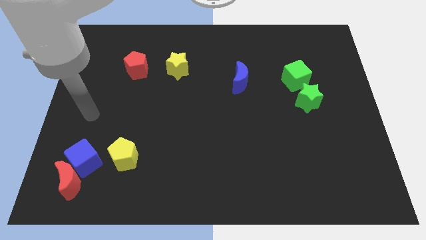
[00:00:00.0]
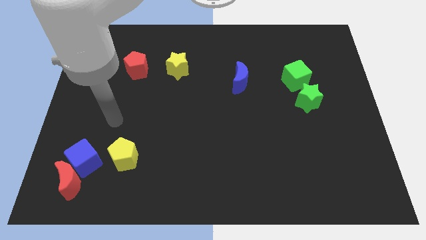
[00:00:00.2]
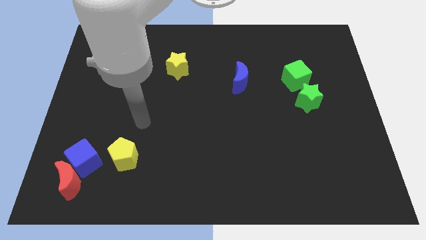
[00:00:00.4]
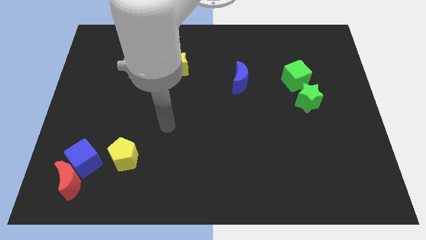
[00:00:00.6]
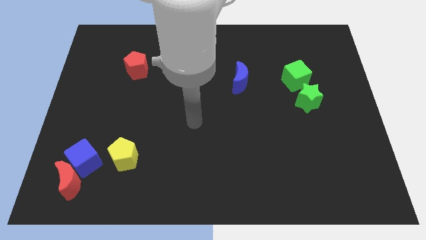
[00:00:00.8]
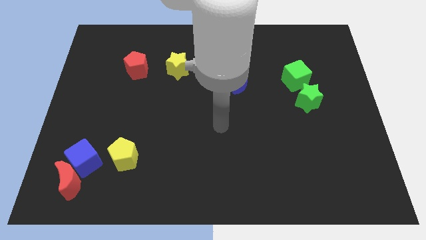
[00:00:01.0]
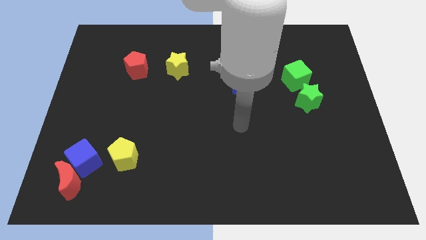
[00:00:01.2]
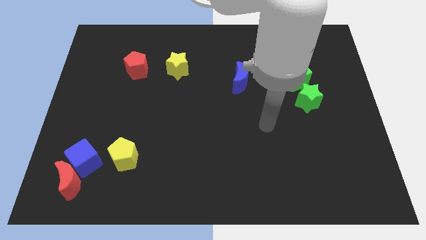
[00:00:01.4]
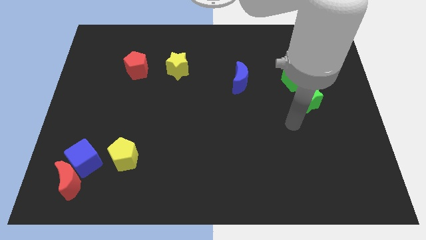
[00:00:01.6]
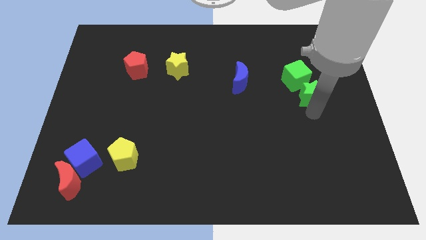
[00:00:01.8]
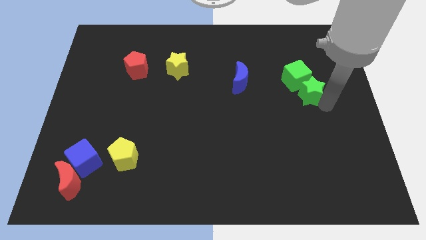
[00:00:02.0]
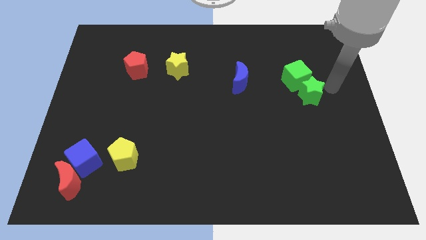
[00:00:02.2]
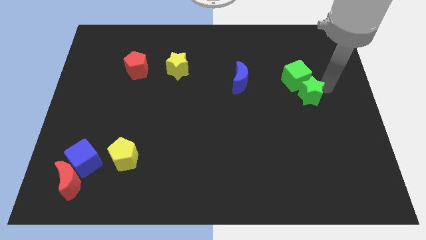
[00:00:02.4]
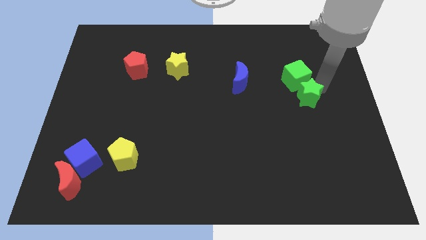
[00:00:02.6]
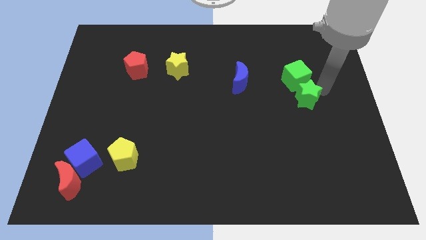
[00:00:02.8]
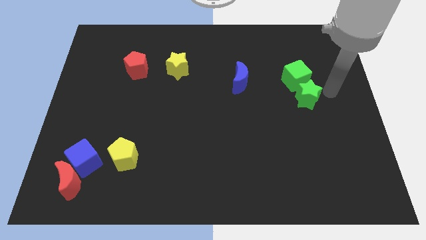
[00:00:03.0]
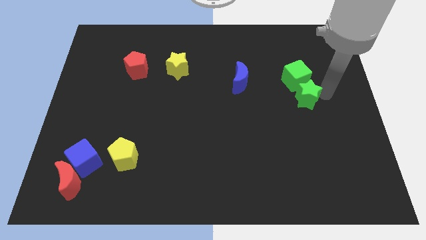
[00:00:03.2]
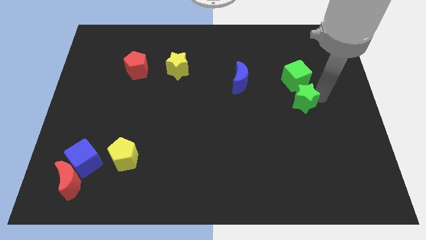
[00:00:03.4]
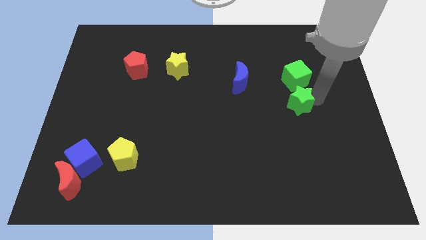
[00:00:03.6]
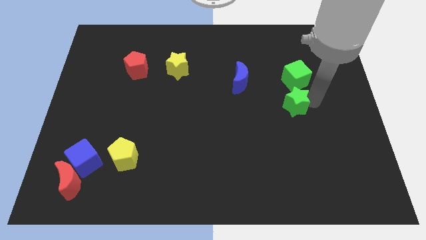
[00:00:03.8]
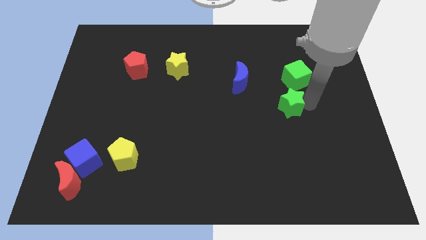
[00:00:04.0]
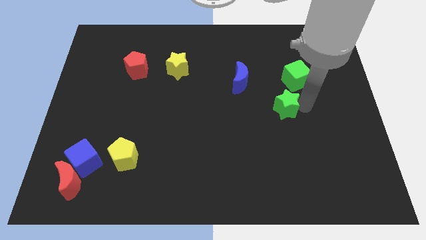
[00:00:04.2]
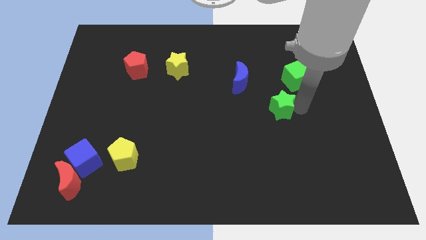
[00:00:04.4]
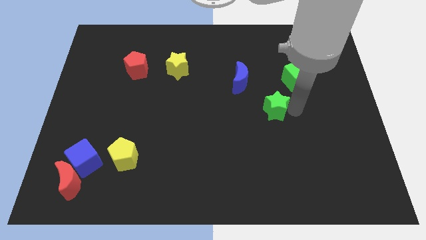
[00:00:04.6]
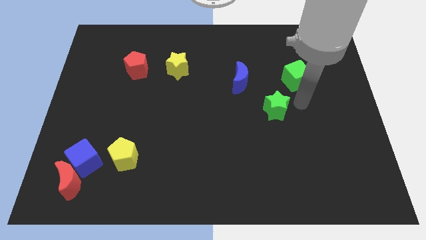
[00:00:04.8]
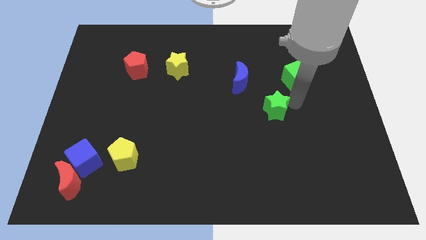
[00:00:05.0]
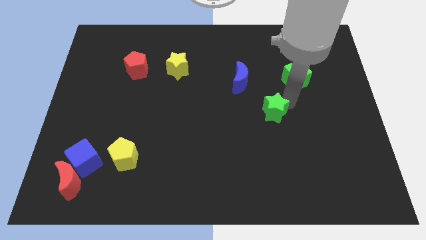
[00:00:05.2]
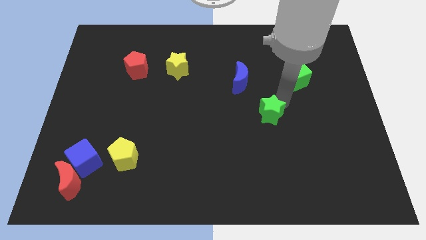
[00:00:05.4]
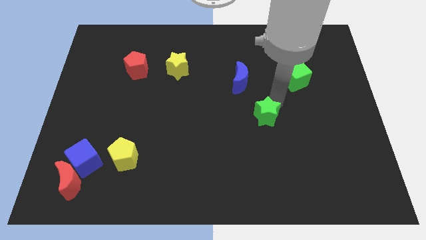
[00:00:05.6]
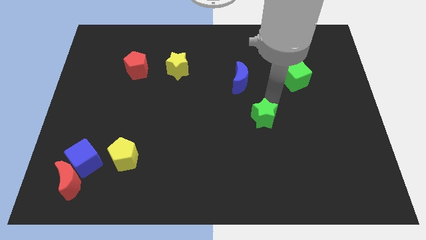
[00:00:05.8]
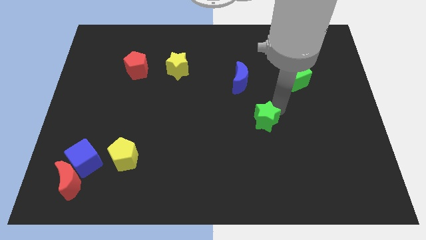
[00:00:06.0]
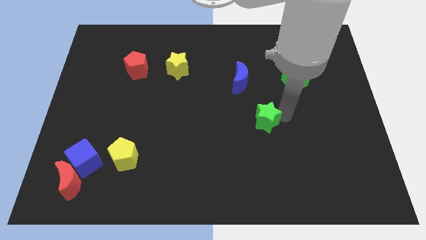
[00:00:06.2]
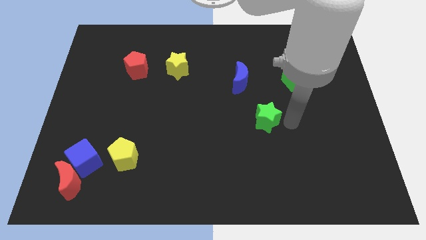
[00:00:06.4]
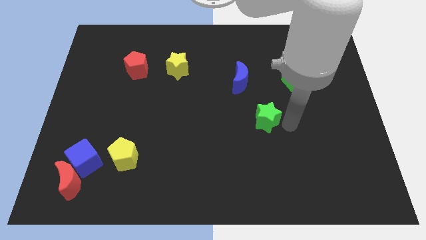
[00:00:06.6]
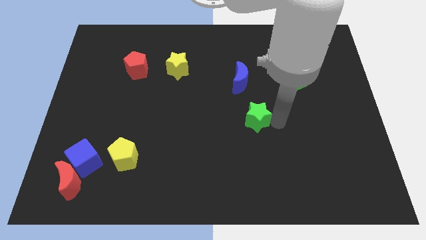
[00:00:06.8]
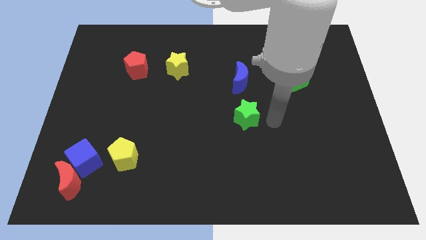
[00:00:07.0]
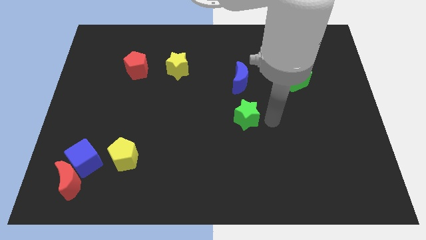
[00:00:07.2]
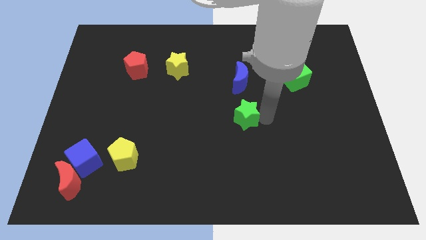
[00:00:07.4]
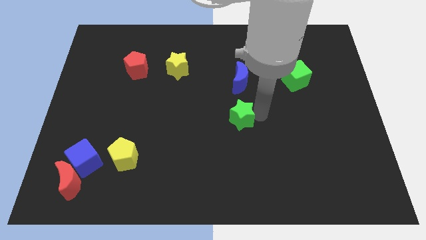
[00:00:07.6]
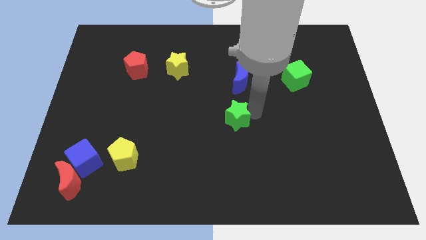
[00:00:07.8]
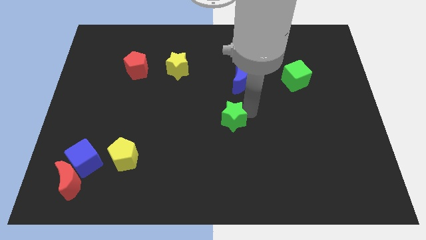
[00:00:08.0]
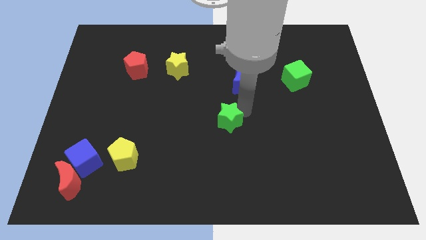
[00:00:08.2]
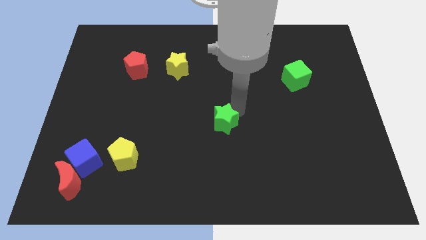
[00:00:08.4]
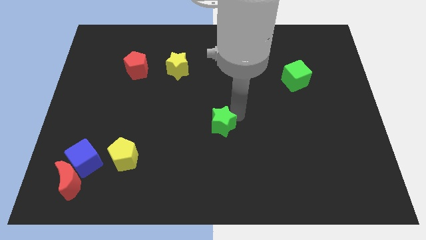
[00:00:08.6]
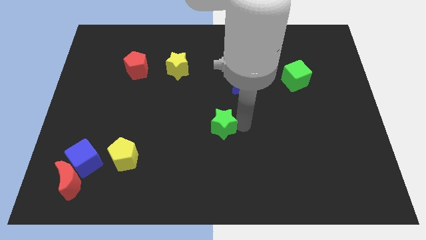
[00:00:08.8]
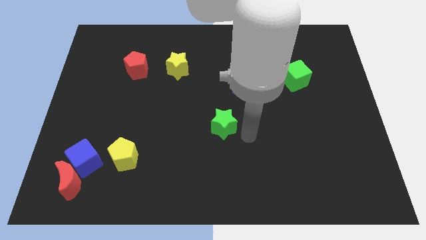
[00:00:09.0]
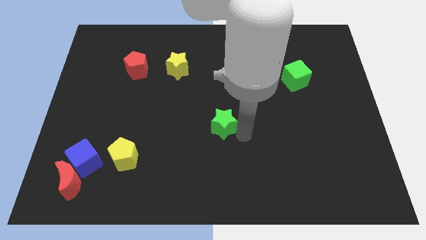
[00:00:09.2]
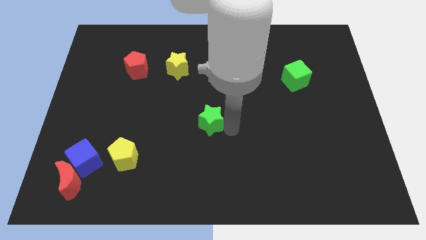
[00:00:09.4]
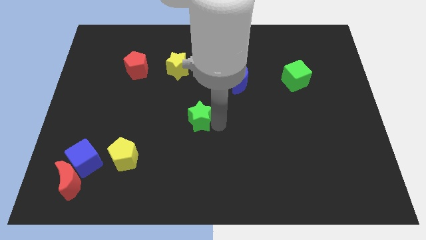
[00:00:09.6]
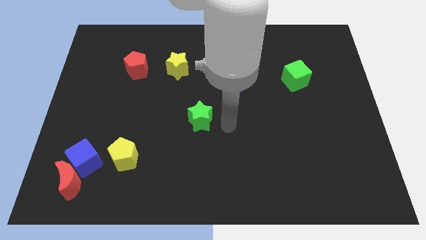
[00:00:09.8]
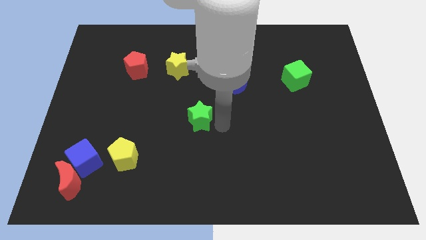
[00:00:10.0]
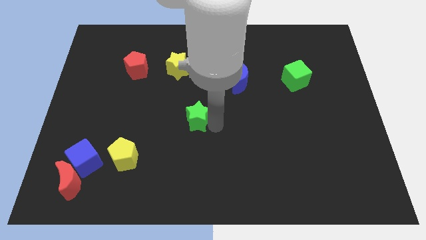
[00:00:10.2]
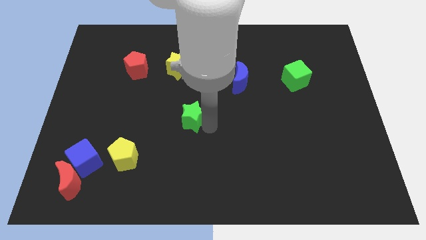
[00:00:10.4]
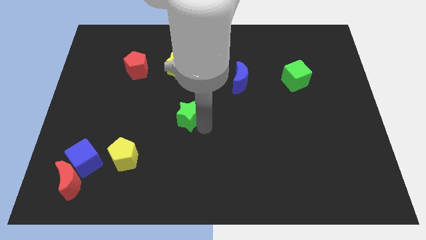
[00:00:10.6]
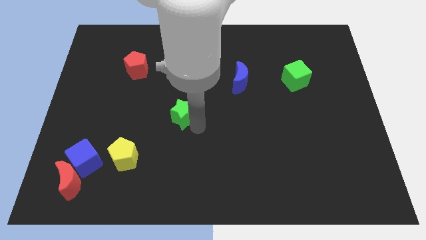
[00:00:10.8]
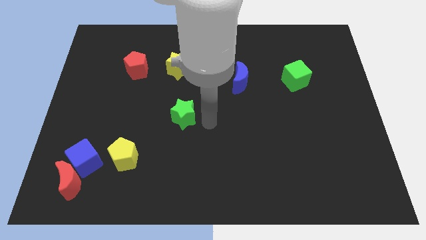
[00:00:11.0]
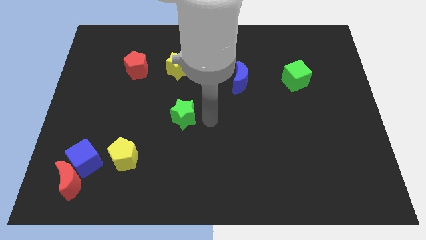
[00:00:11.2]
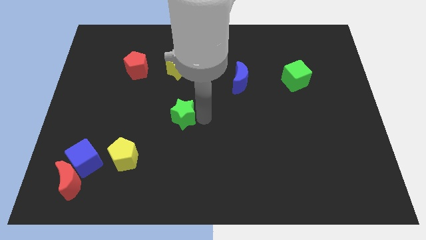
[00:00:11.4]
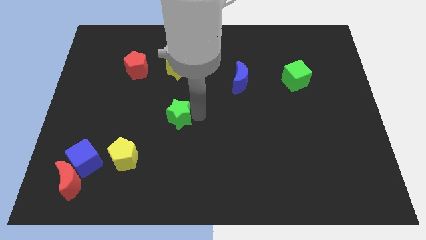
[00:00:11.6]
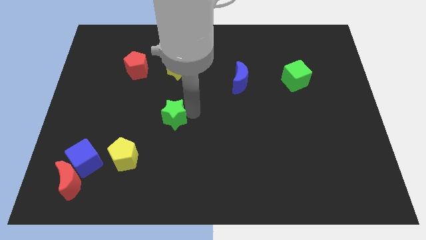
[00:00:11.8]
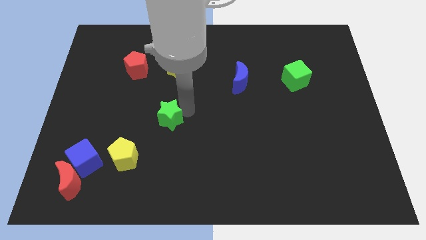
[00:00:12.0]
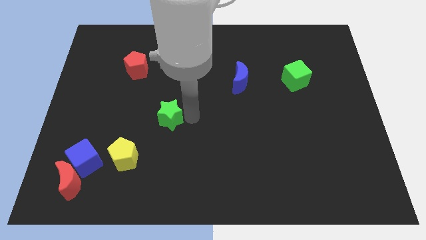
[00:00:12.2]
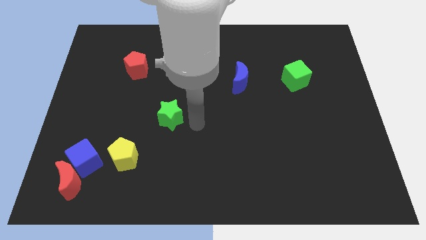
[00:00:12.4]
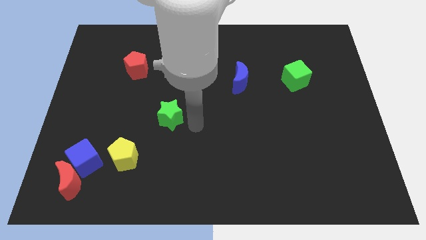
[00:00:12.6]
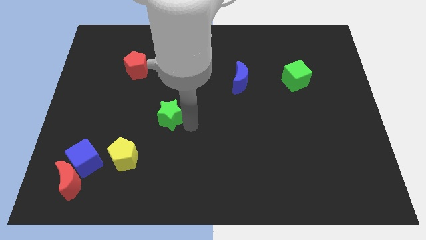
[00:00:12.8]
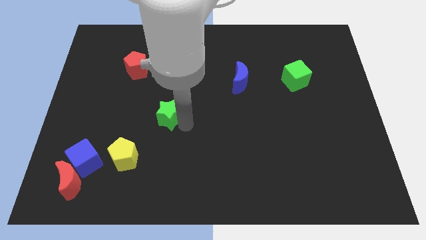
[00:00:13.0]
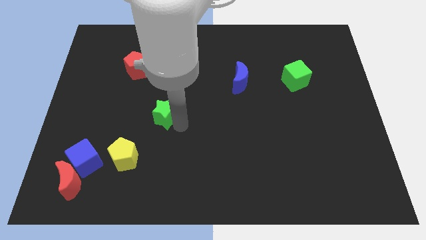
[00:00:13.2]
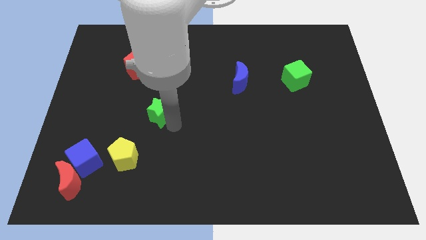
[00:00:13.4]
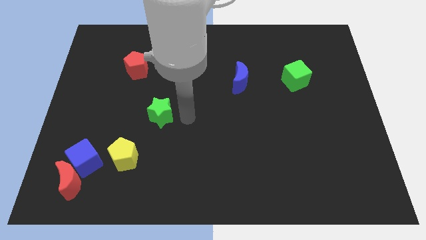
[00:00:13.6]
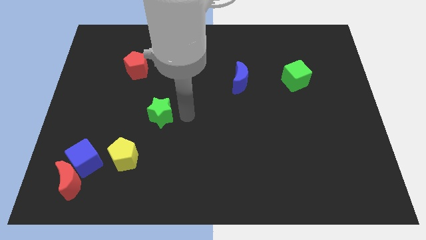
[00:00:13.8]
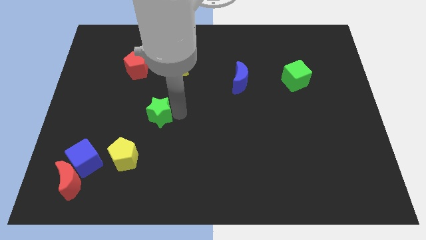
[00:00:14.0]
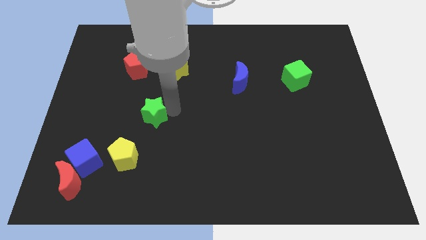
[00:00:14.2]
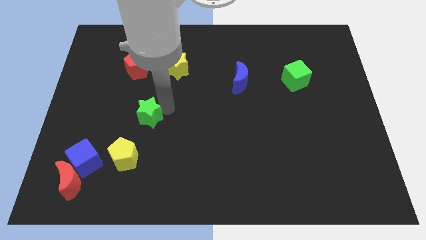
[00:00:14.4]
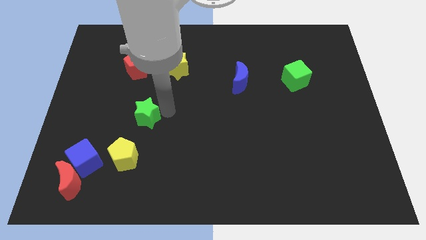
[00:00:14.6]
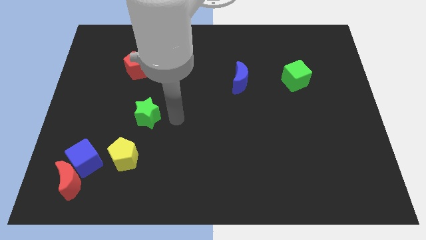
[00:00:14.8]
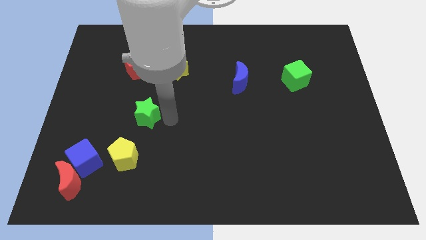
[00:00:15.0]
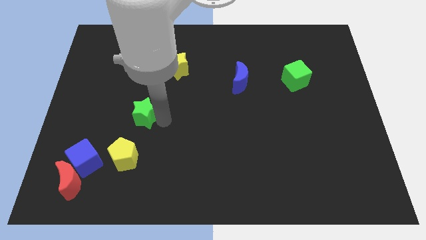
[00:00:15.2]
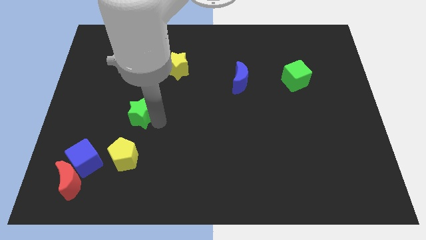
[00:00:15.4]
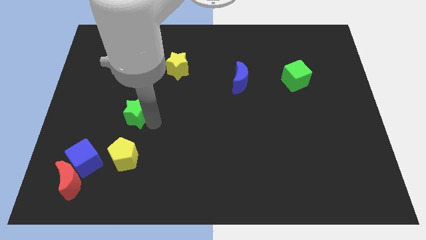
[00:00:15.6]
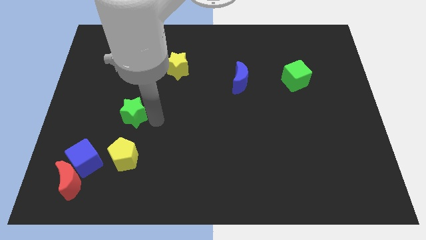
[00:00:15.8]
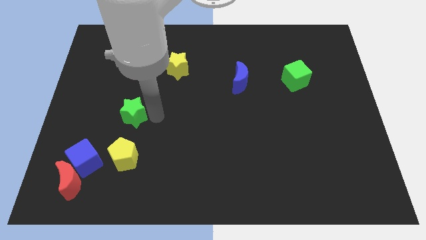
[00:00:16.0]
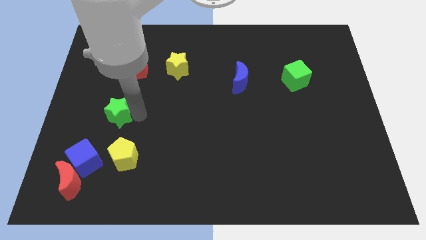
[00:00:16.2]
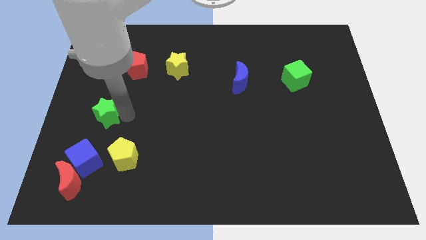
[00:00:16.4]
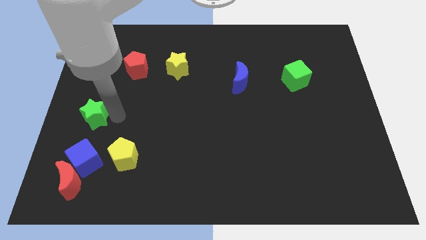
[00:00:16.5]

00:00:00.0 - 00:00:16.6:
put the green star to the left side of the board
